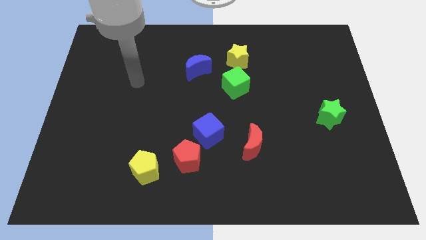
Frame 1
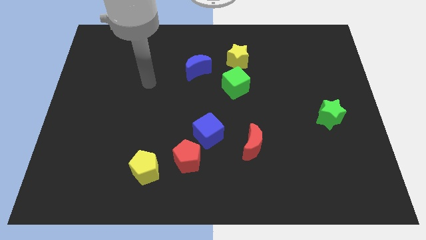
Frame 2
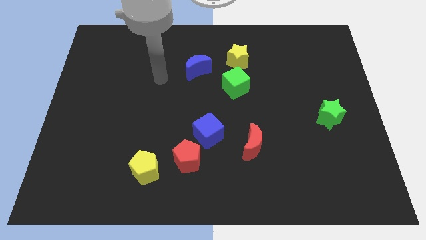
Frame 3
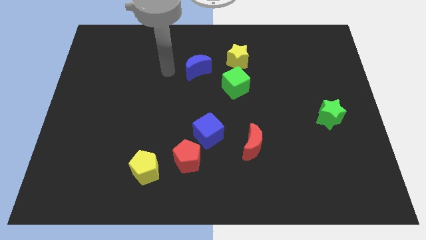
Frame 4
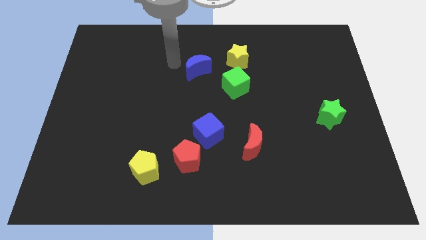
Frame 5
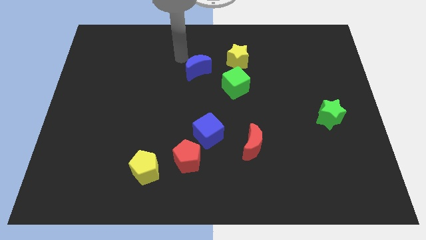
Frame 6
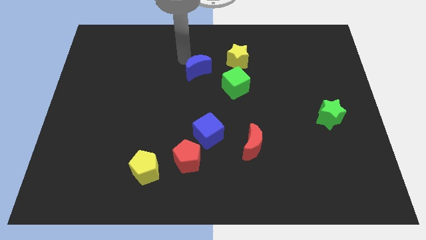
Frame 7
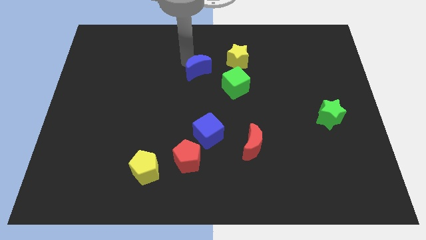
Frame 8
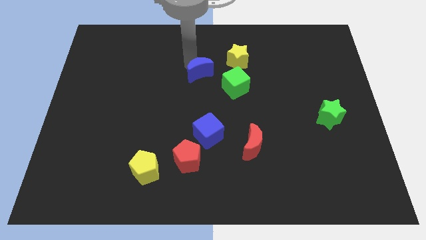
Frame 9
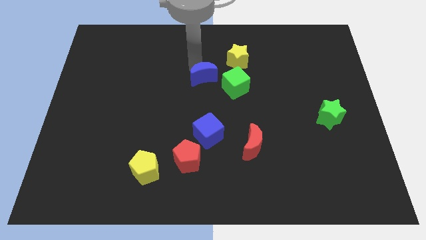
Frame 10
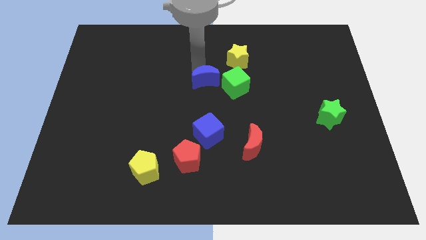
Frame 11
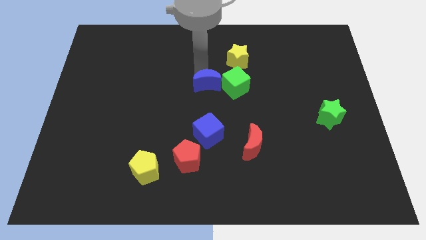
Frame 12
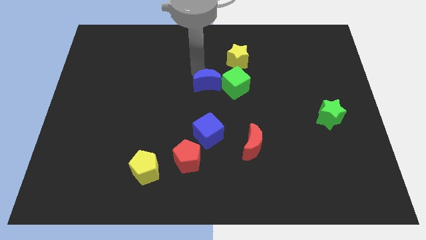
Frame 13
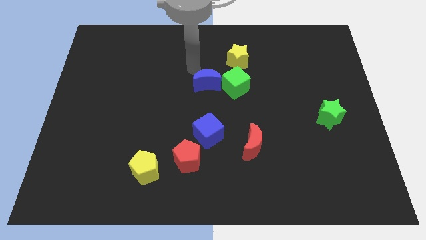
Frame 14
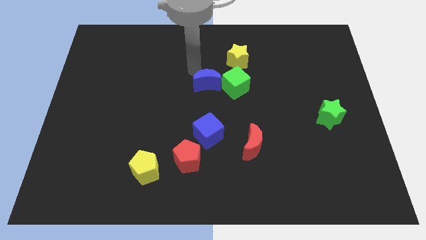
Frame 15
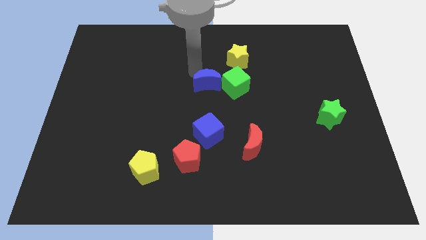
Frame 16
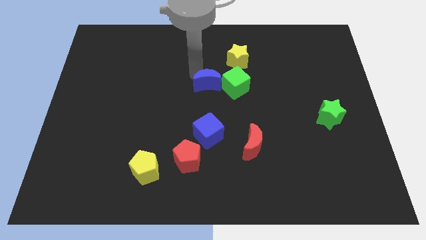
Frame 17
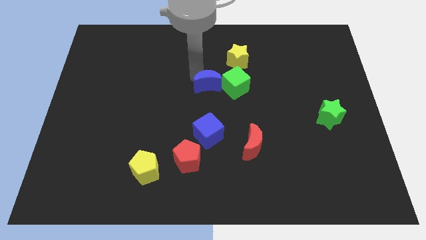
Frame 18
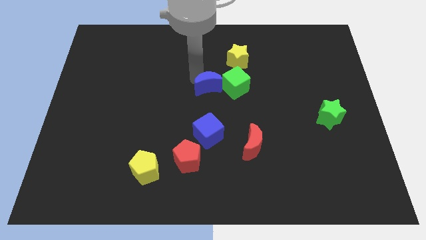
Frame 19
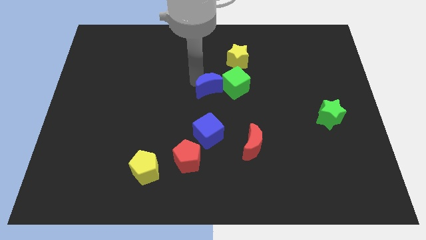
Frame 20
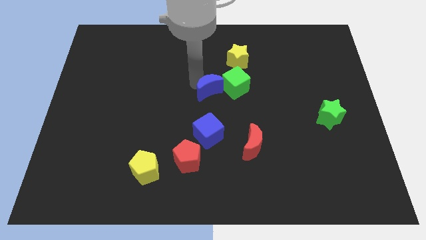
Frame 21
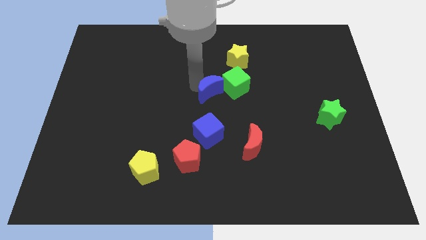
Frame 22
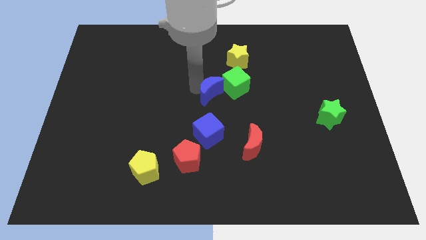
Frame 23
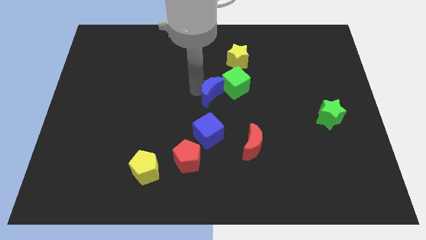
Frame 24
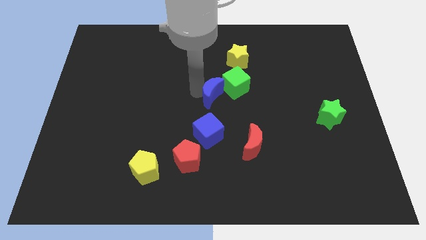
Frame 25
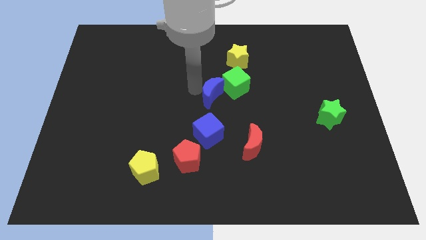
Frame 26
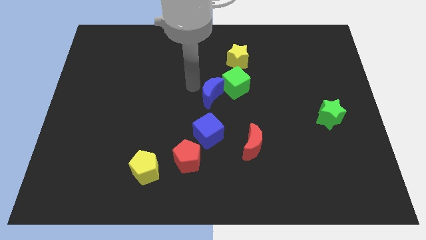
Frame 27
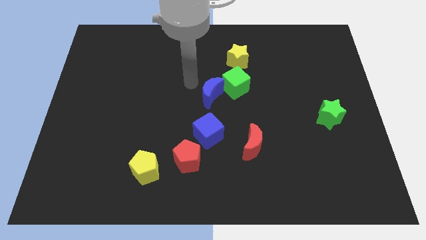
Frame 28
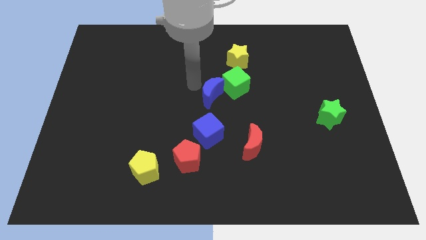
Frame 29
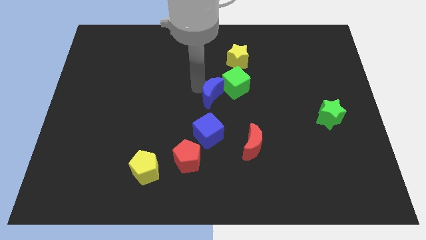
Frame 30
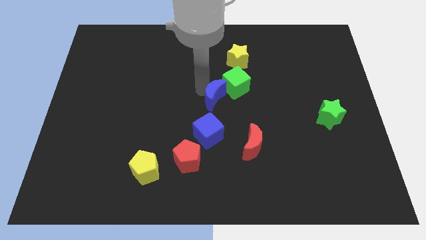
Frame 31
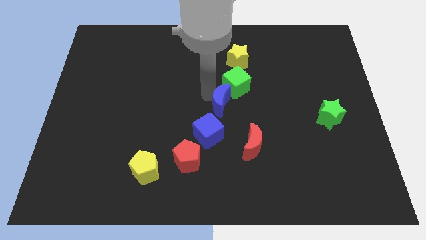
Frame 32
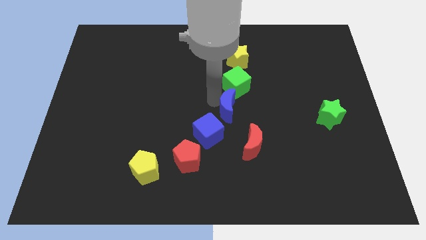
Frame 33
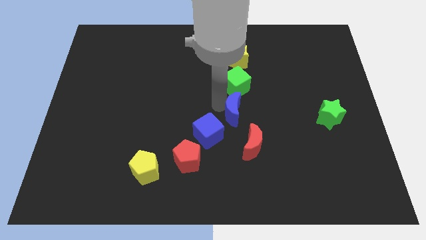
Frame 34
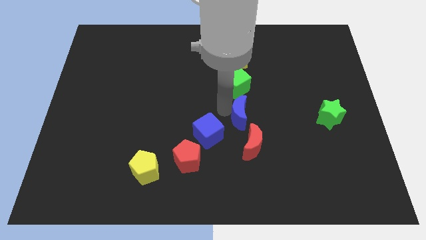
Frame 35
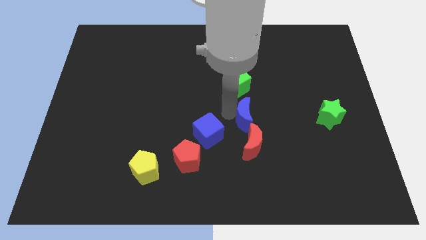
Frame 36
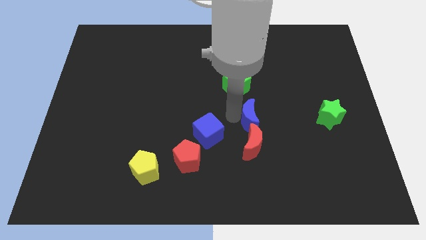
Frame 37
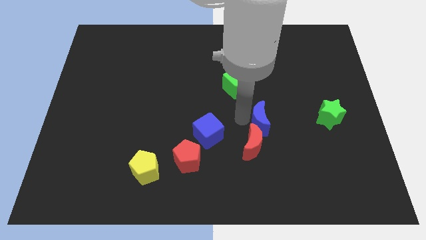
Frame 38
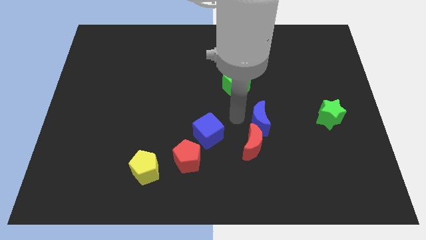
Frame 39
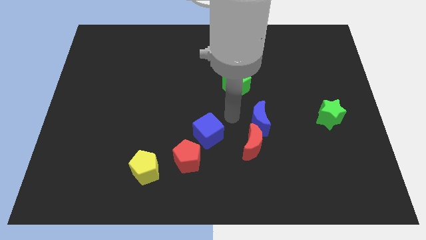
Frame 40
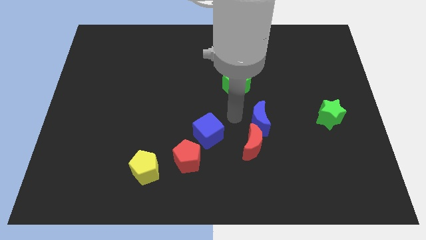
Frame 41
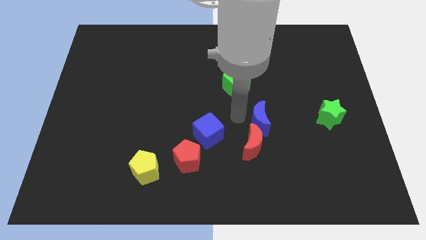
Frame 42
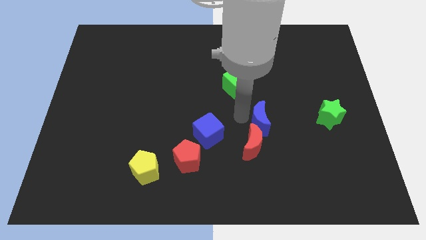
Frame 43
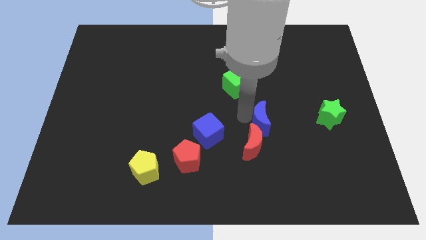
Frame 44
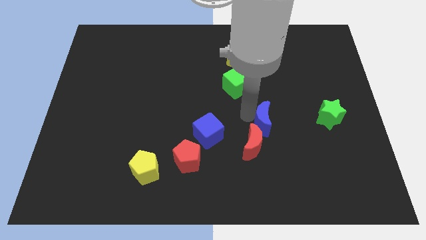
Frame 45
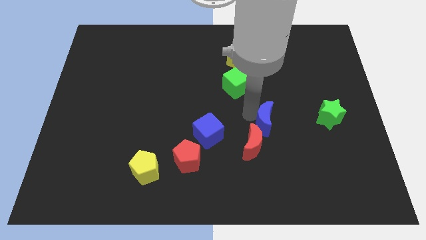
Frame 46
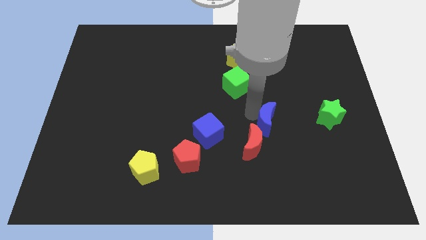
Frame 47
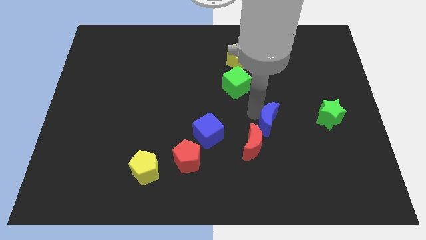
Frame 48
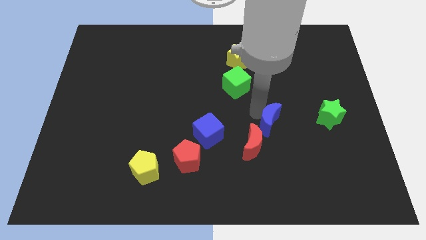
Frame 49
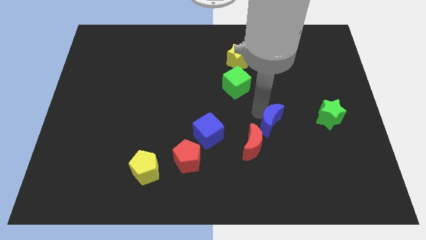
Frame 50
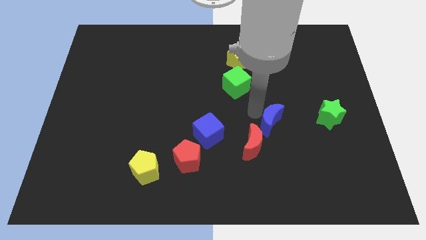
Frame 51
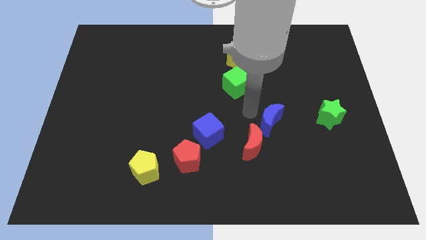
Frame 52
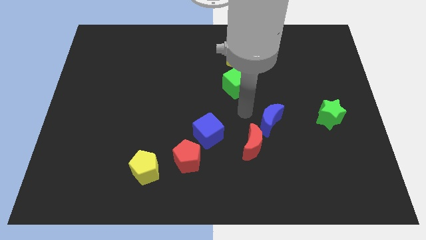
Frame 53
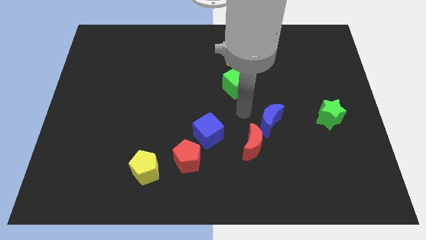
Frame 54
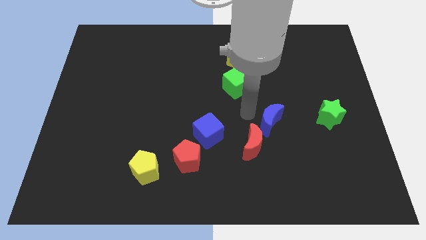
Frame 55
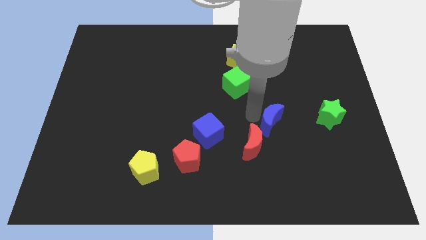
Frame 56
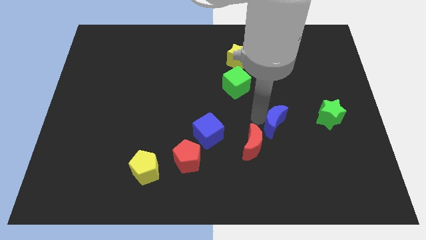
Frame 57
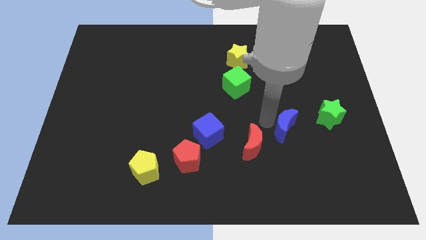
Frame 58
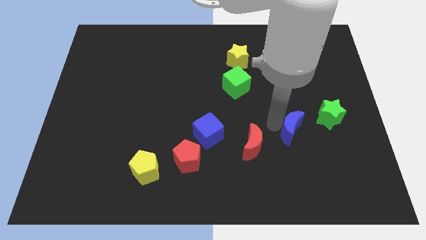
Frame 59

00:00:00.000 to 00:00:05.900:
slide the blue moon diagonally down and to the left of the green star

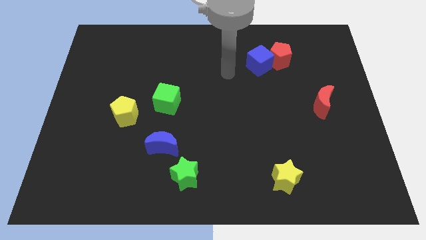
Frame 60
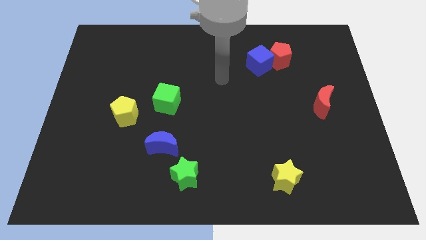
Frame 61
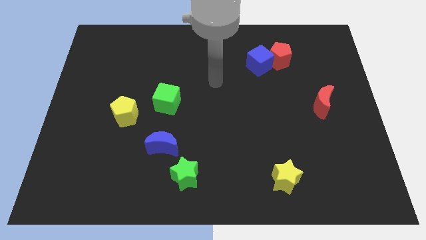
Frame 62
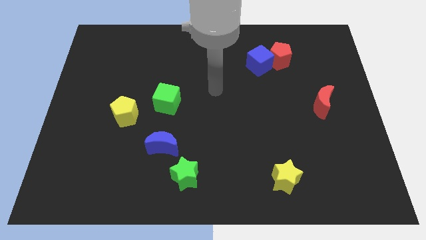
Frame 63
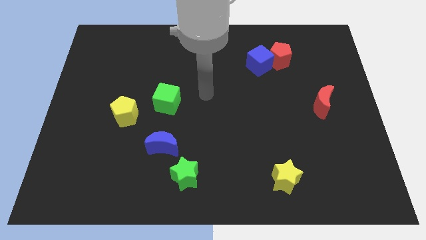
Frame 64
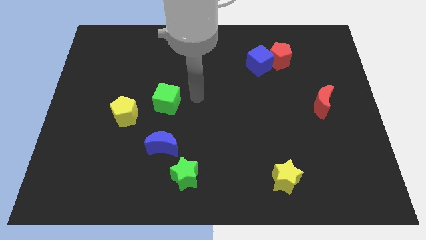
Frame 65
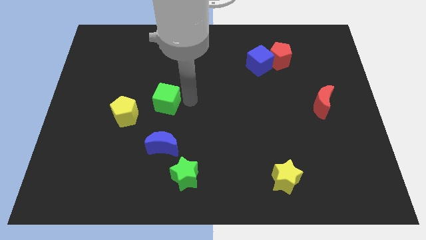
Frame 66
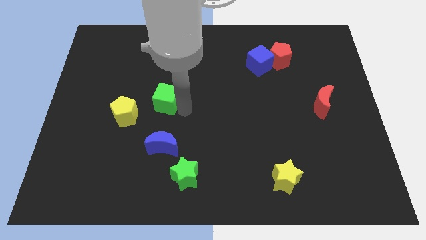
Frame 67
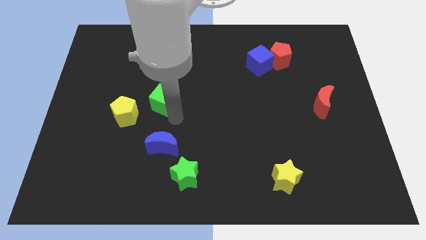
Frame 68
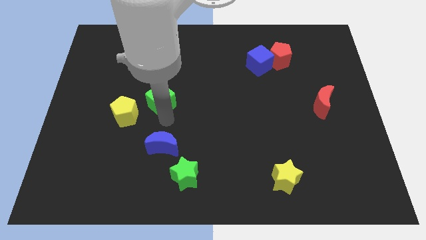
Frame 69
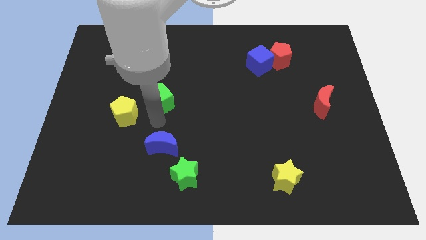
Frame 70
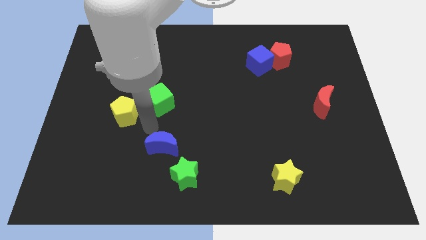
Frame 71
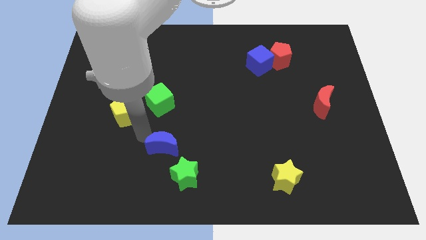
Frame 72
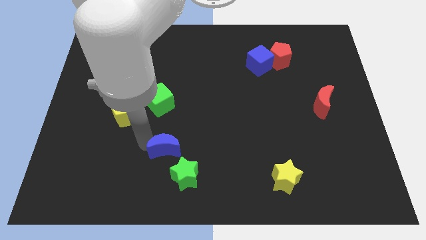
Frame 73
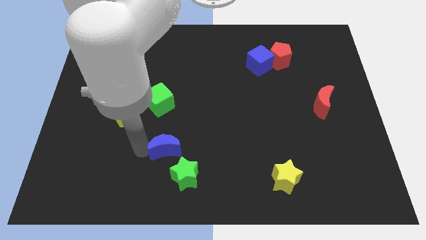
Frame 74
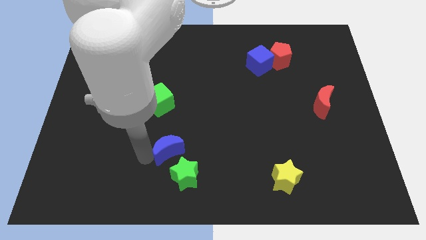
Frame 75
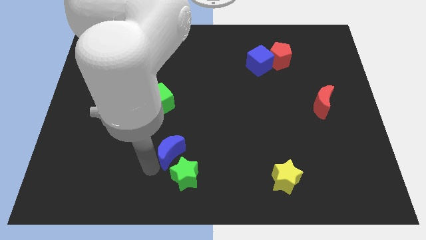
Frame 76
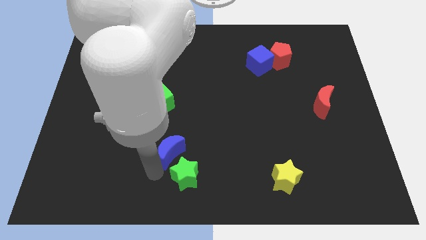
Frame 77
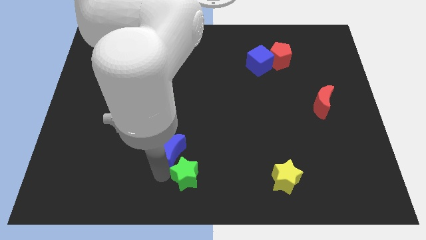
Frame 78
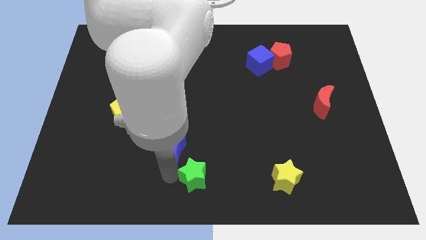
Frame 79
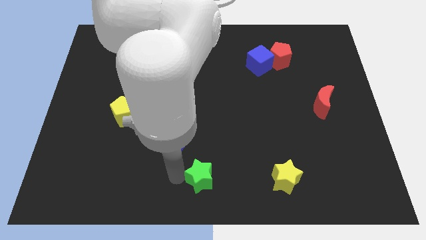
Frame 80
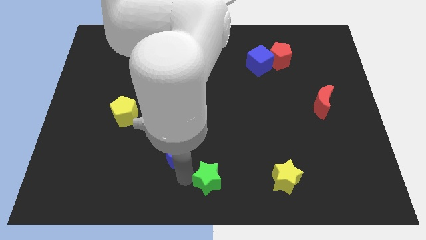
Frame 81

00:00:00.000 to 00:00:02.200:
move the green star left of the yellow star

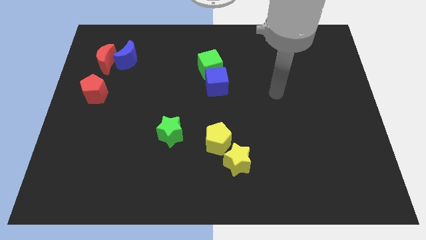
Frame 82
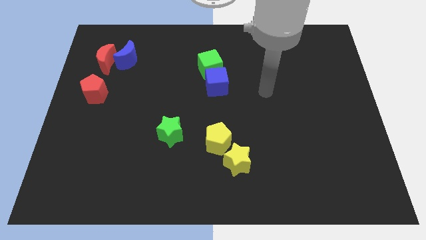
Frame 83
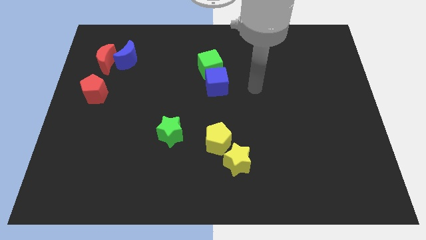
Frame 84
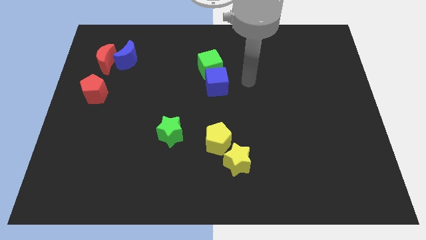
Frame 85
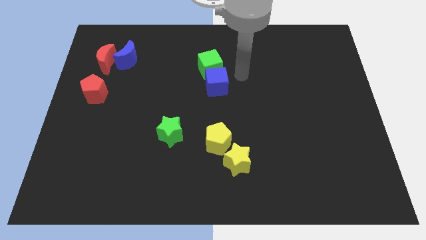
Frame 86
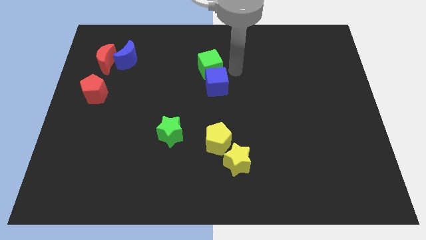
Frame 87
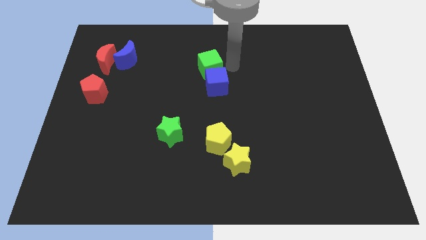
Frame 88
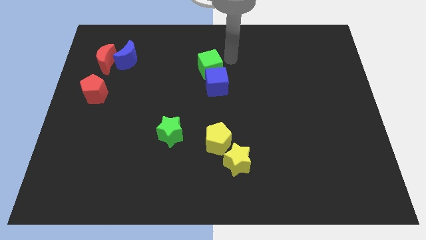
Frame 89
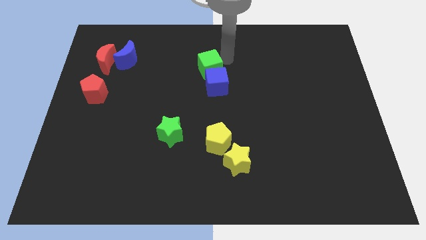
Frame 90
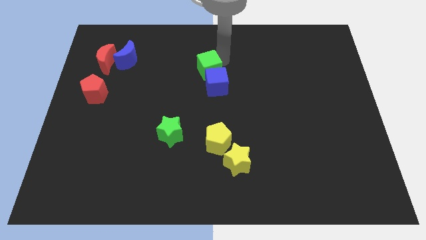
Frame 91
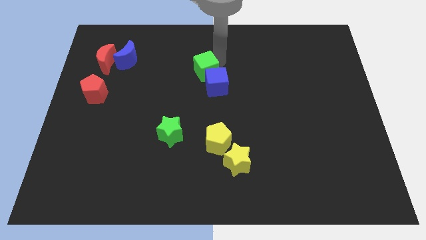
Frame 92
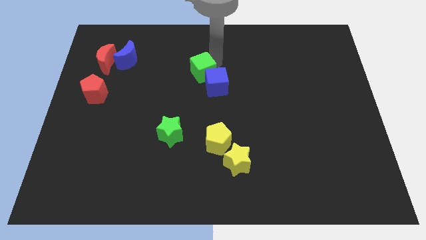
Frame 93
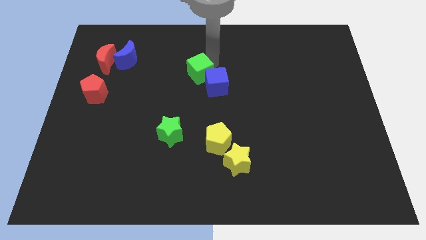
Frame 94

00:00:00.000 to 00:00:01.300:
slide the green cube to the left of the blue cube
